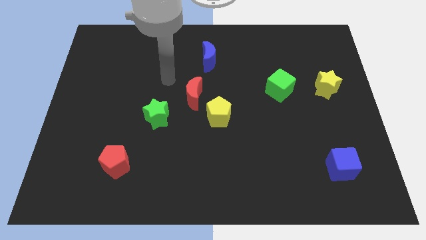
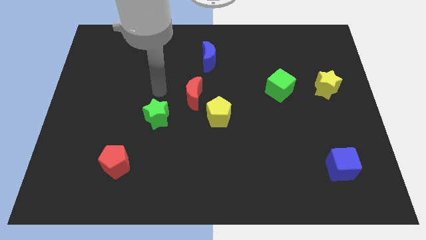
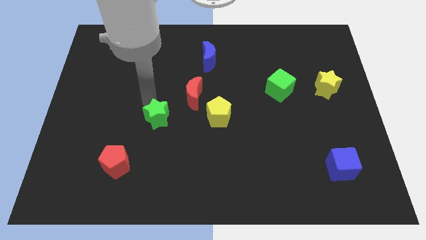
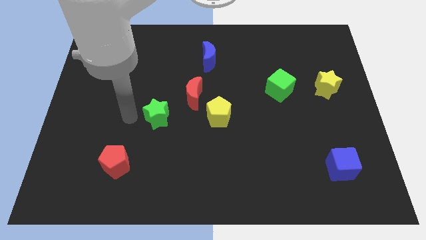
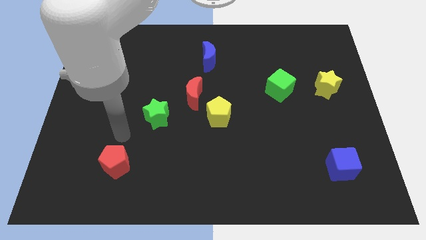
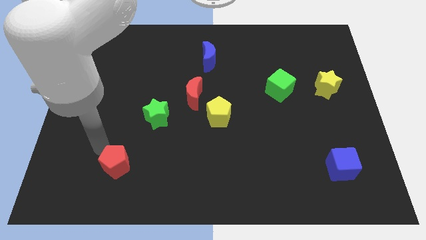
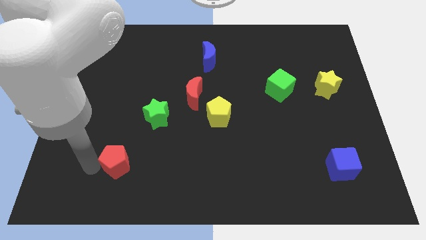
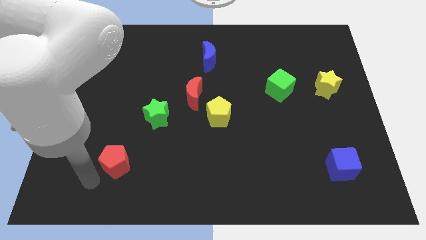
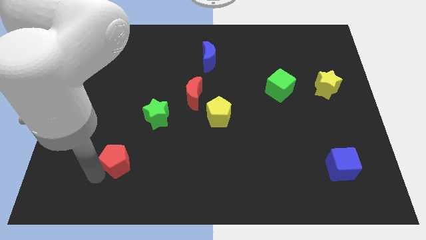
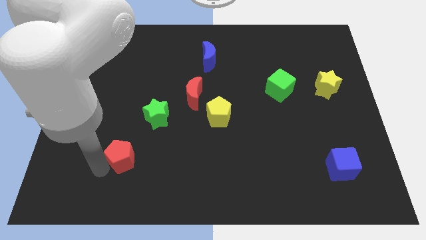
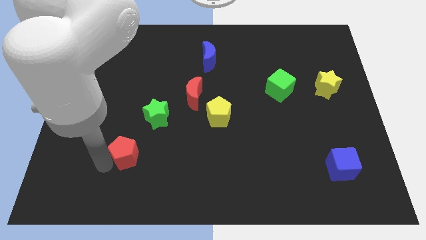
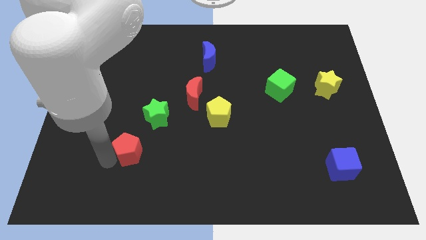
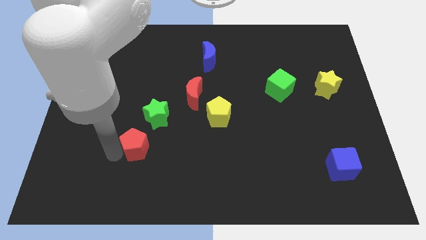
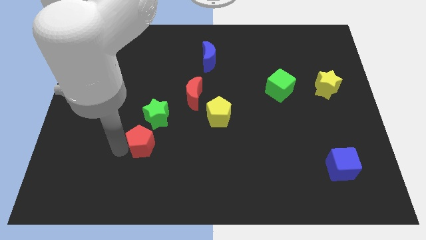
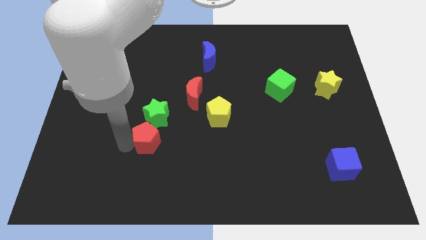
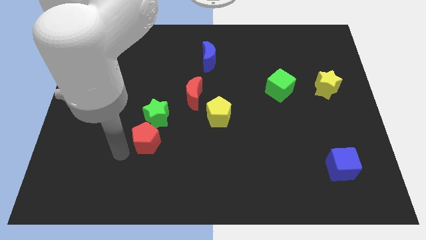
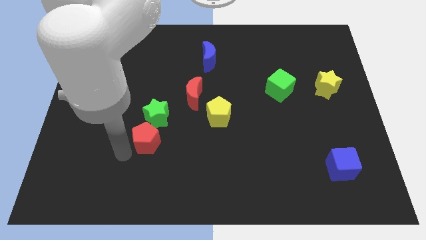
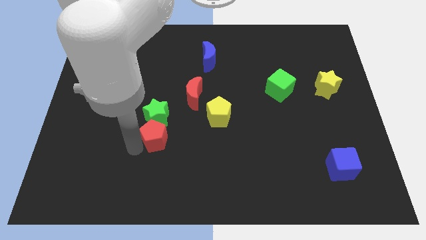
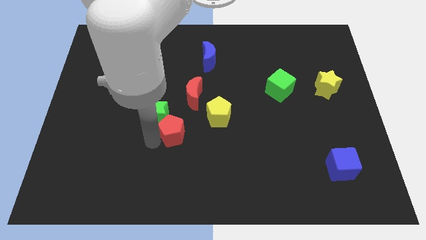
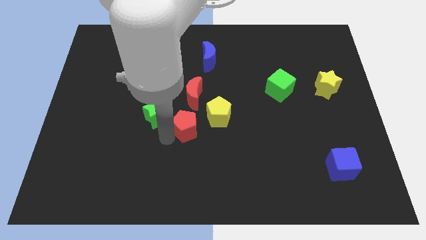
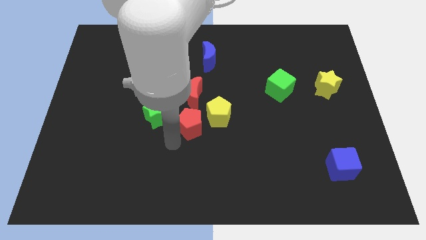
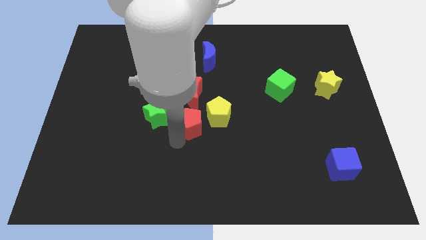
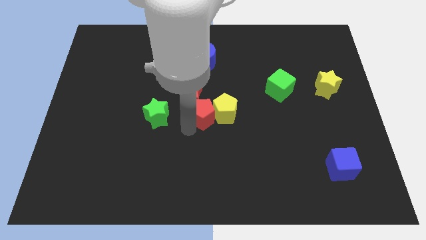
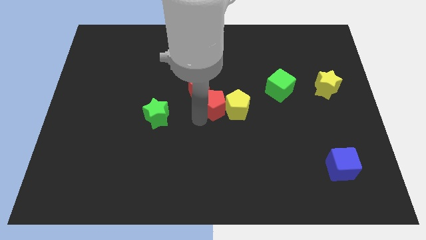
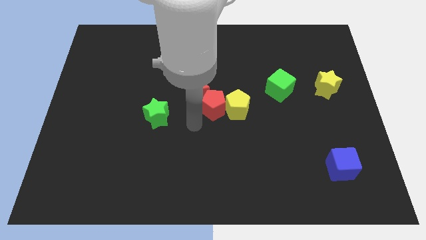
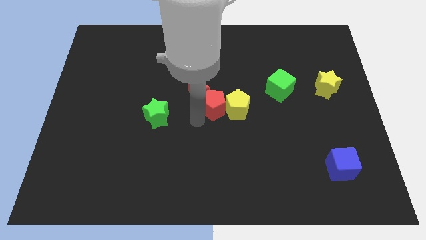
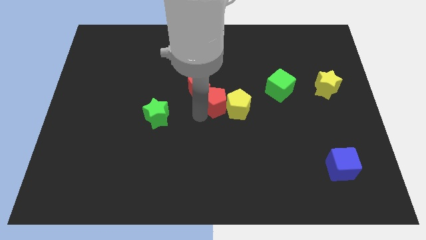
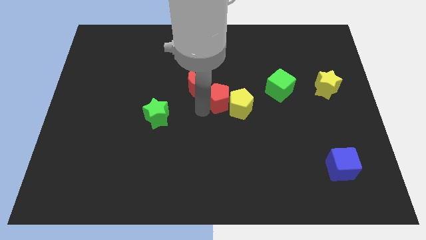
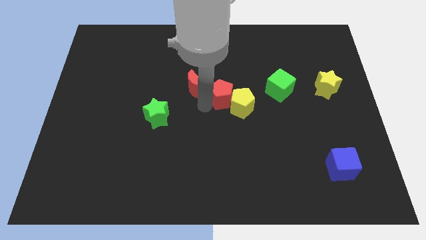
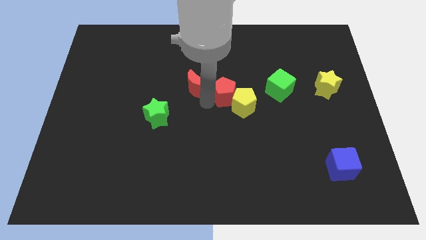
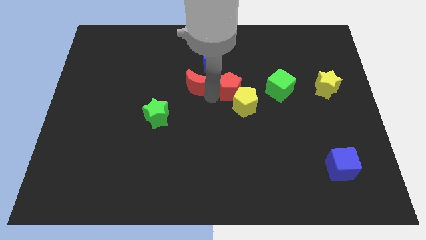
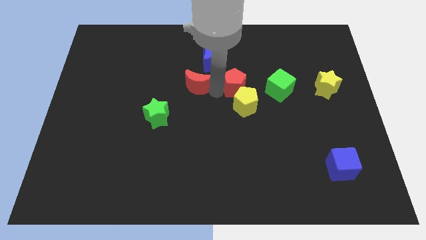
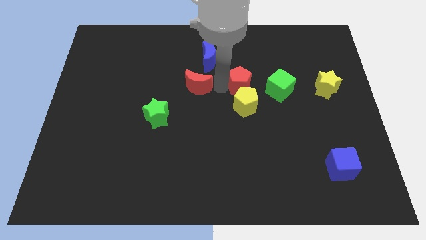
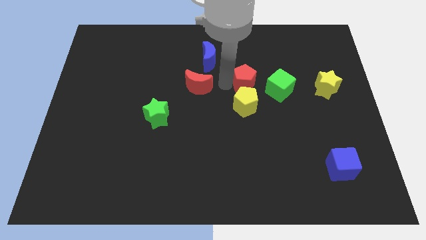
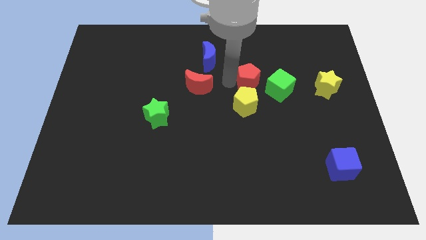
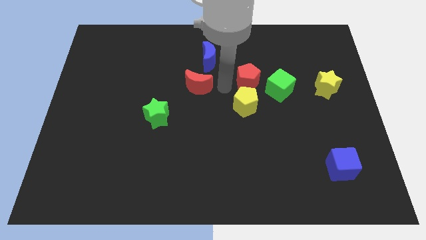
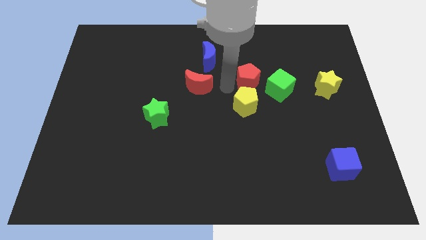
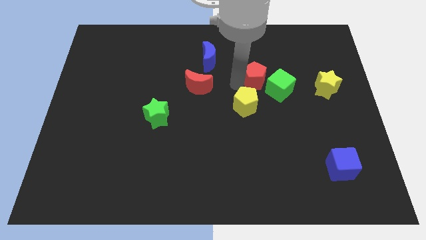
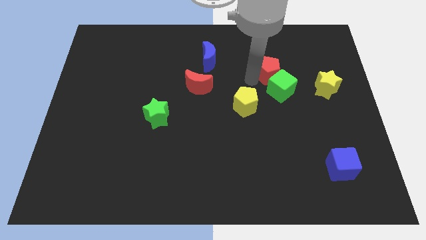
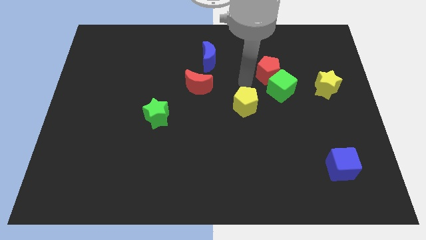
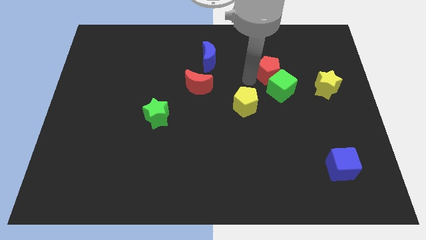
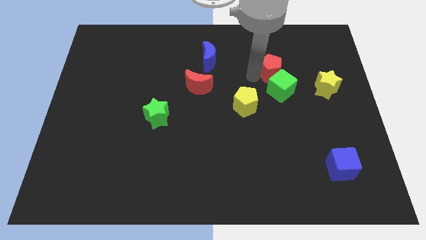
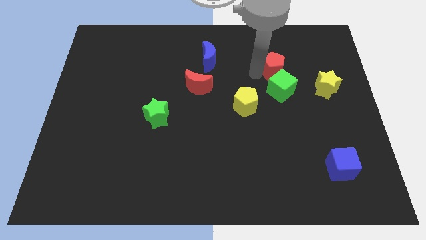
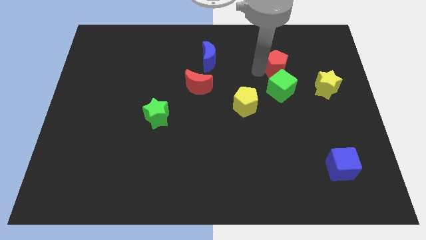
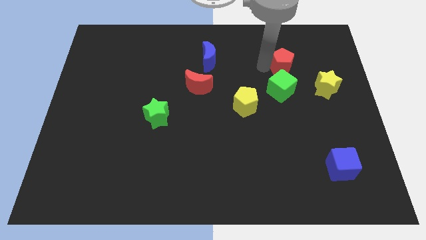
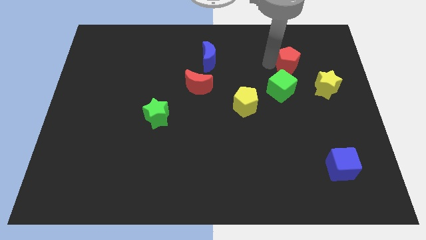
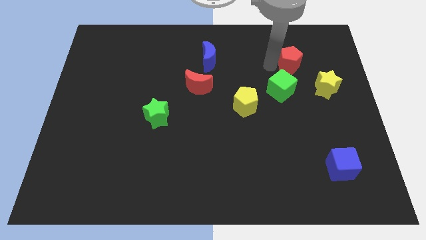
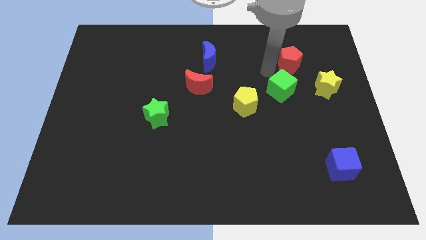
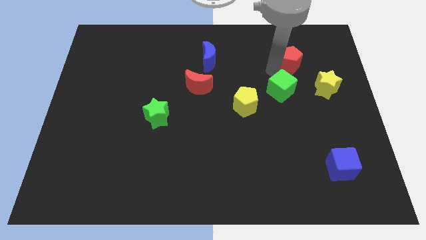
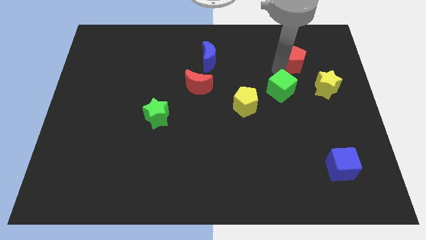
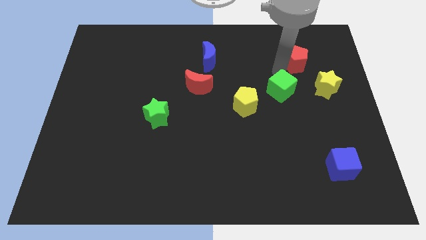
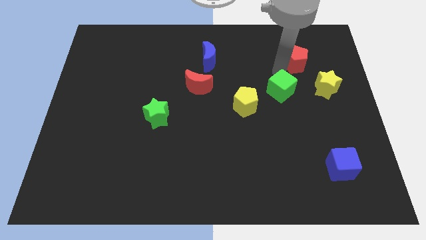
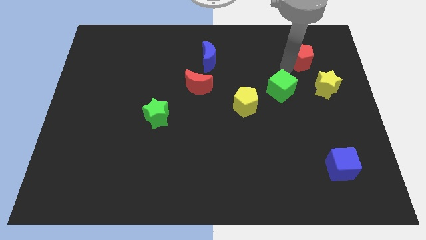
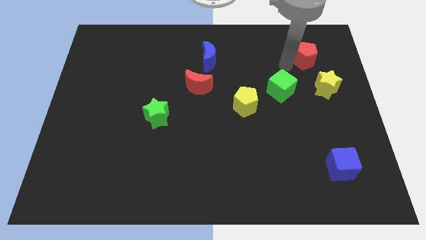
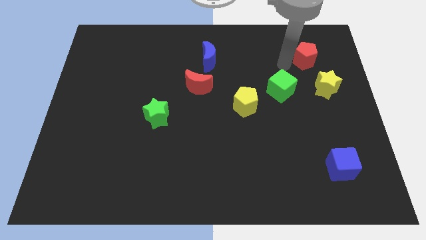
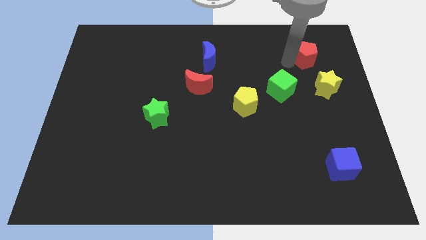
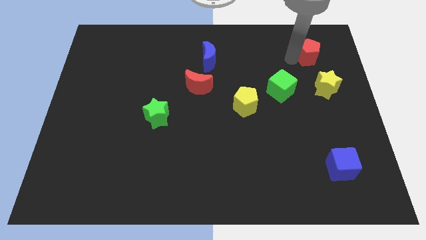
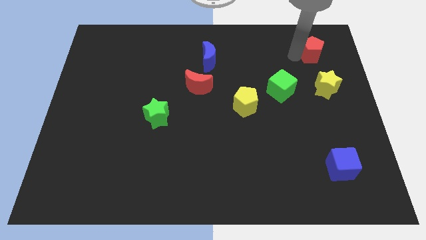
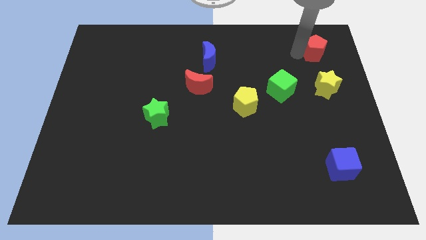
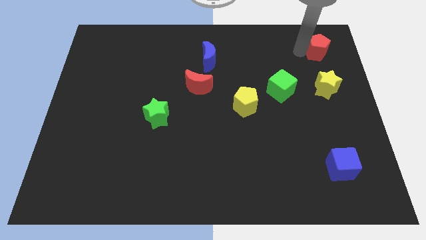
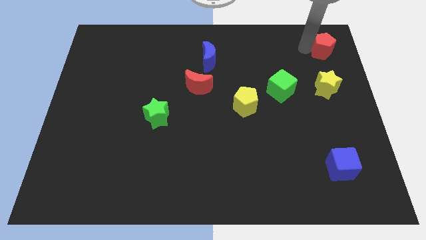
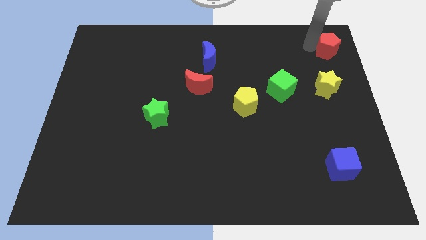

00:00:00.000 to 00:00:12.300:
move the red pentagon to the upper right corner
